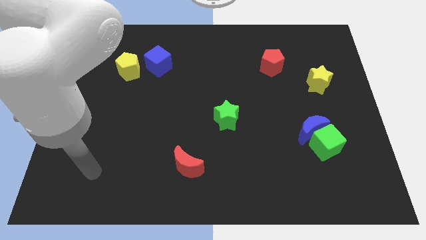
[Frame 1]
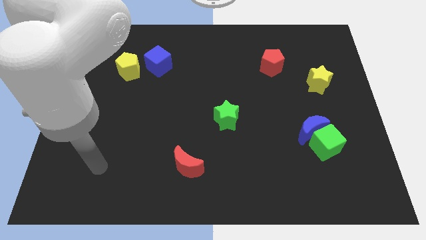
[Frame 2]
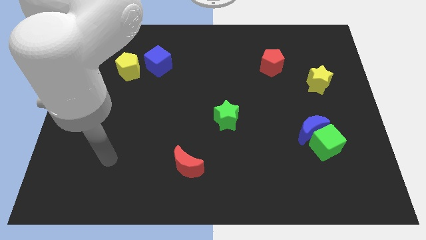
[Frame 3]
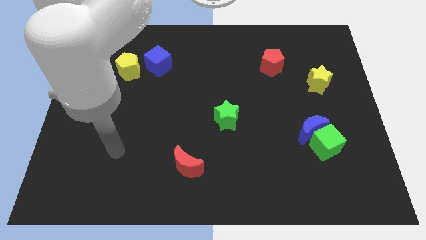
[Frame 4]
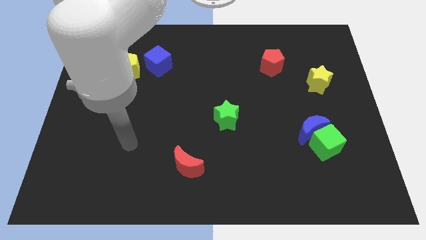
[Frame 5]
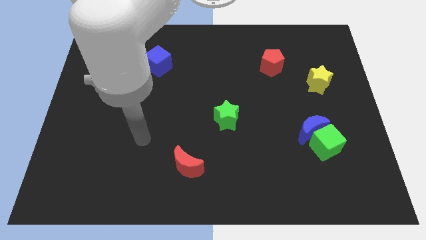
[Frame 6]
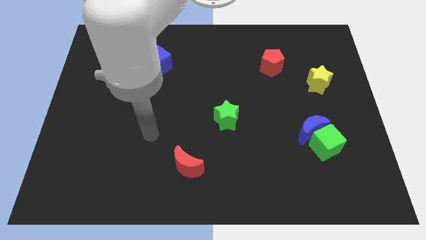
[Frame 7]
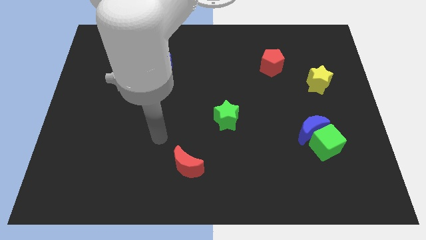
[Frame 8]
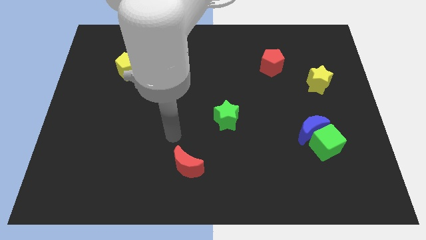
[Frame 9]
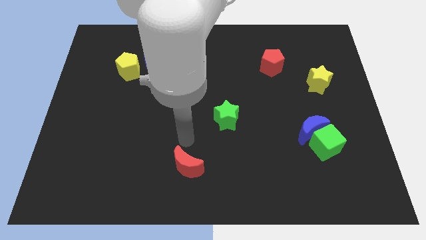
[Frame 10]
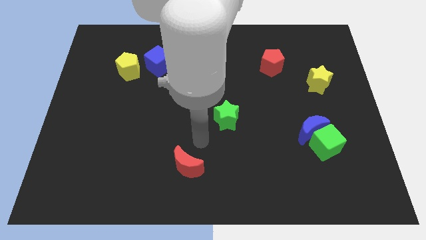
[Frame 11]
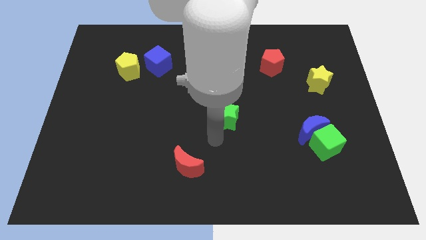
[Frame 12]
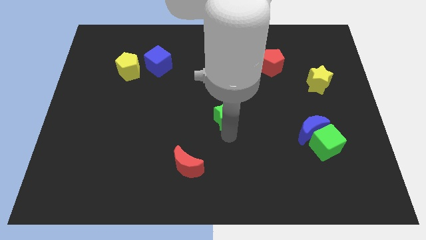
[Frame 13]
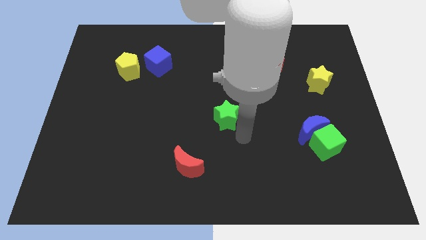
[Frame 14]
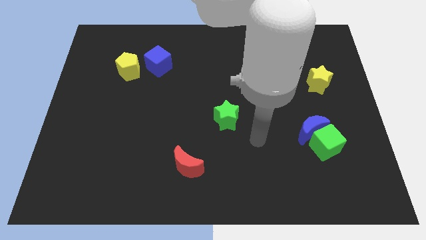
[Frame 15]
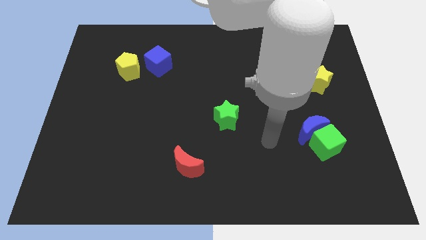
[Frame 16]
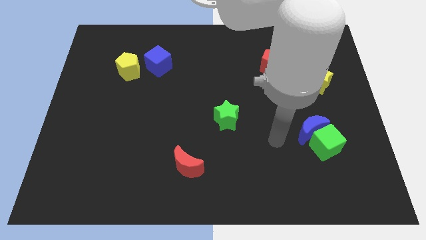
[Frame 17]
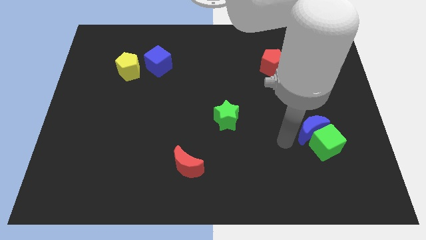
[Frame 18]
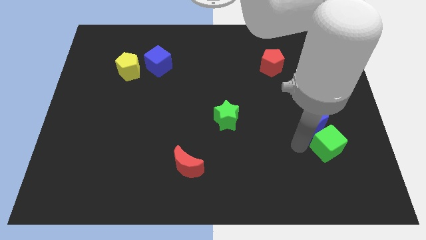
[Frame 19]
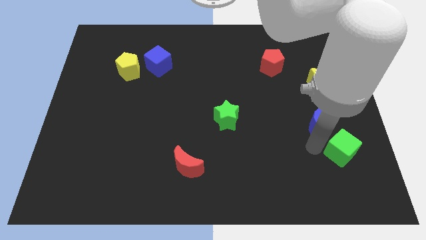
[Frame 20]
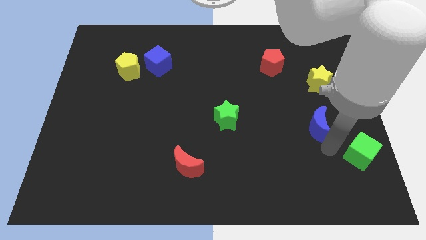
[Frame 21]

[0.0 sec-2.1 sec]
separate the blue moon from the green cube

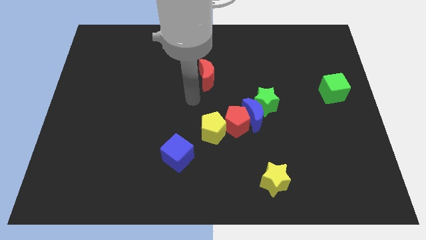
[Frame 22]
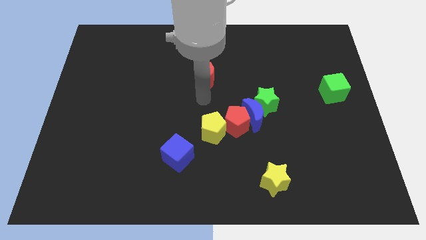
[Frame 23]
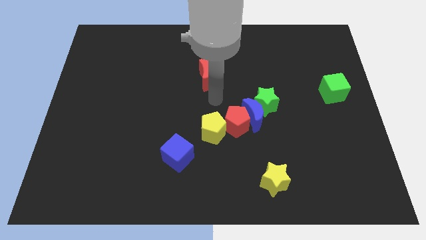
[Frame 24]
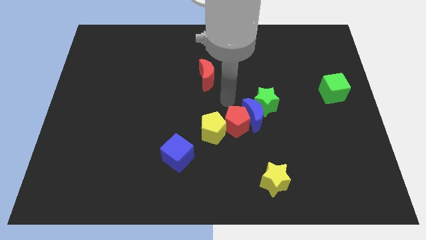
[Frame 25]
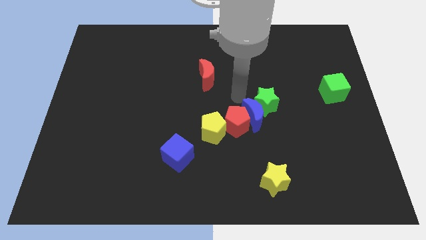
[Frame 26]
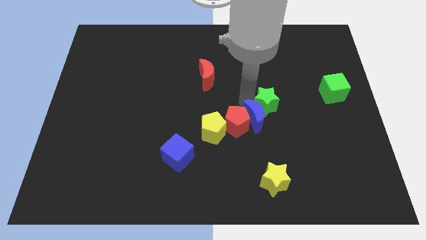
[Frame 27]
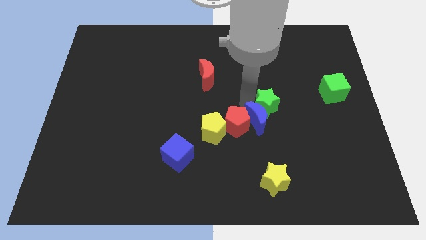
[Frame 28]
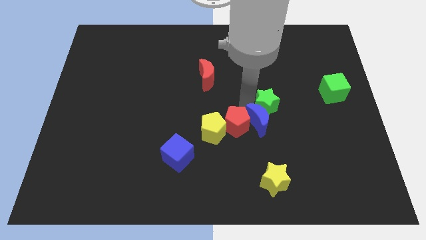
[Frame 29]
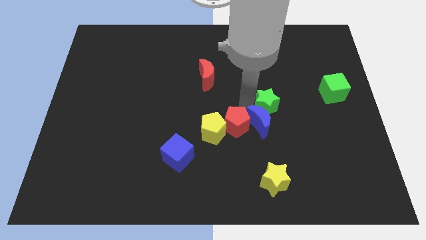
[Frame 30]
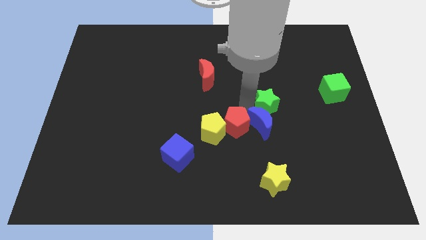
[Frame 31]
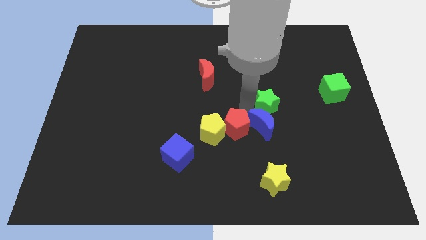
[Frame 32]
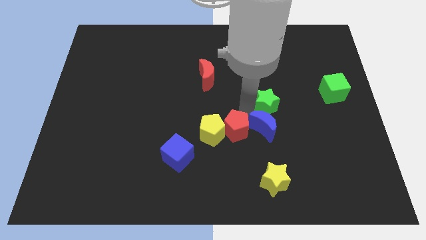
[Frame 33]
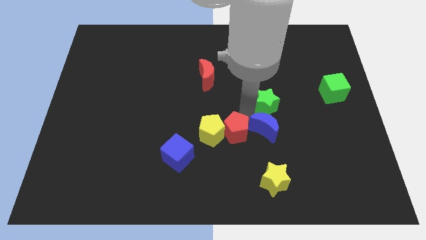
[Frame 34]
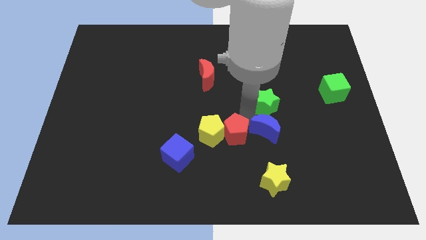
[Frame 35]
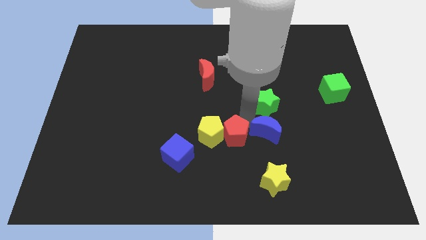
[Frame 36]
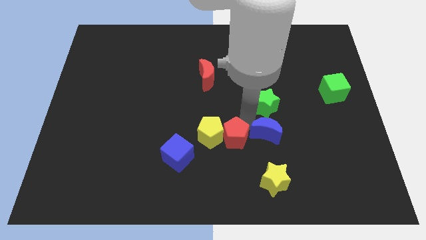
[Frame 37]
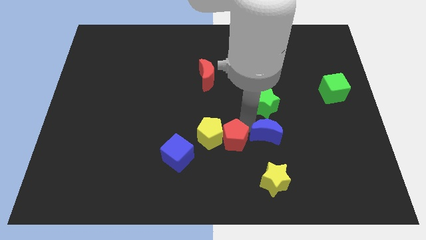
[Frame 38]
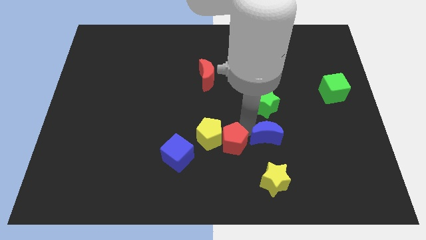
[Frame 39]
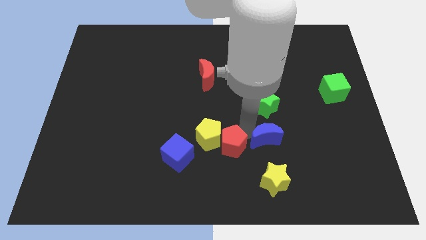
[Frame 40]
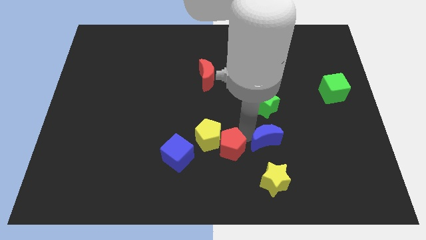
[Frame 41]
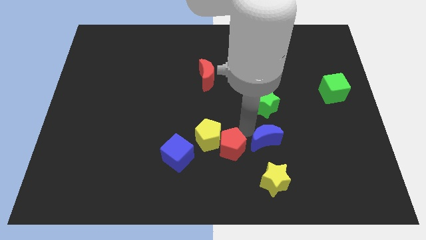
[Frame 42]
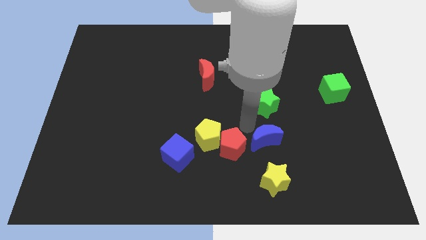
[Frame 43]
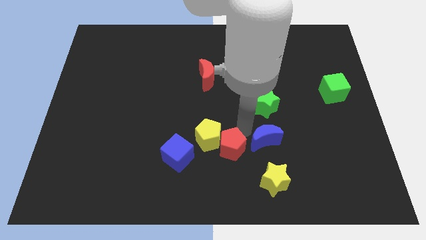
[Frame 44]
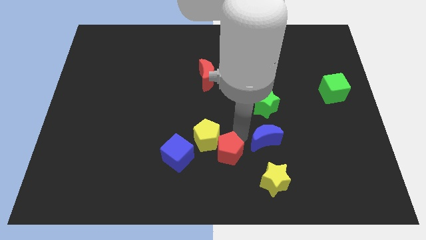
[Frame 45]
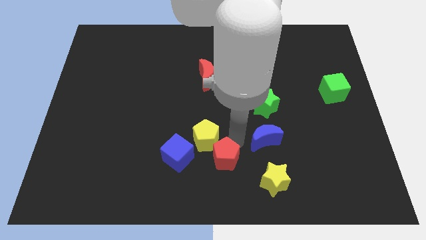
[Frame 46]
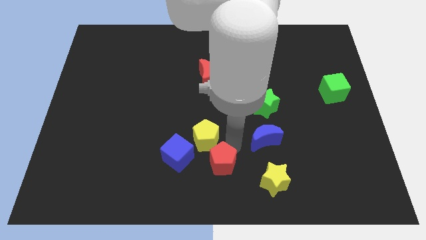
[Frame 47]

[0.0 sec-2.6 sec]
pull the red pentagon apart from the blue moon, yellow pentagon, and green star

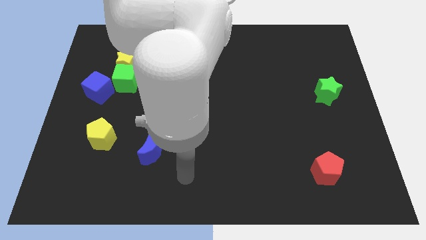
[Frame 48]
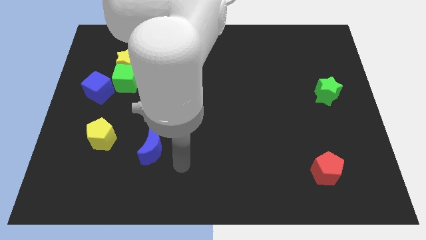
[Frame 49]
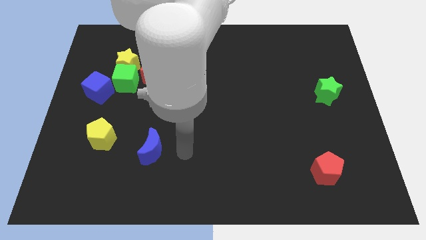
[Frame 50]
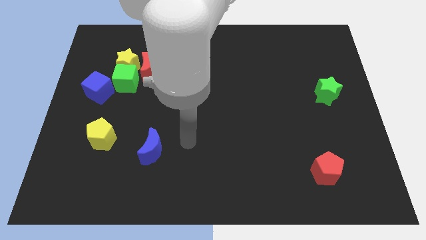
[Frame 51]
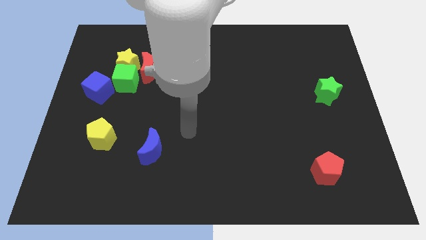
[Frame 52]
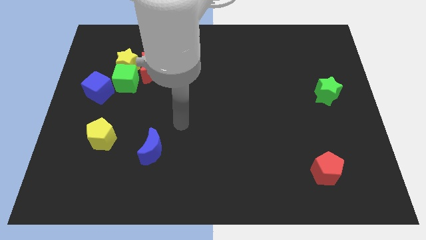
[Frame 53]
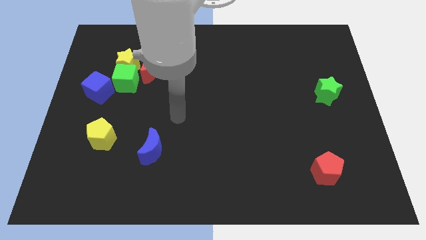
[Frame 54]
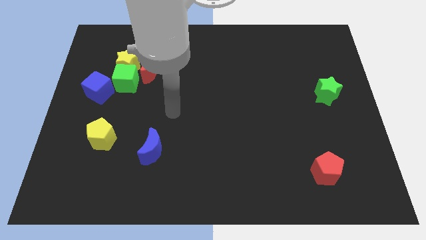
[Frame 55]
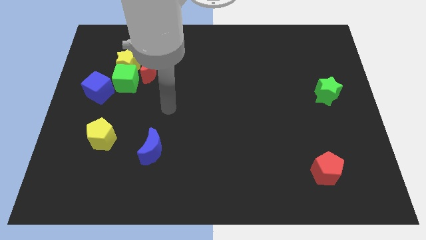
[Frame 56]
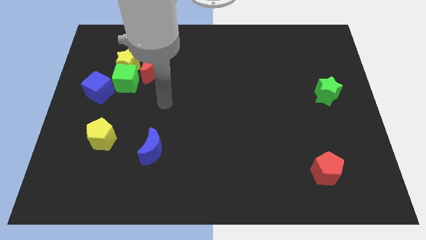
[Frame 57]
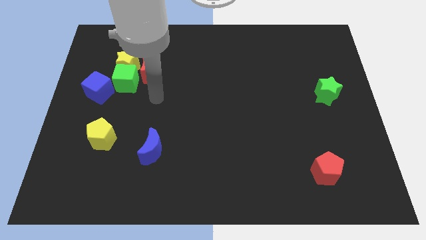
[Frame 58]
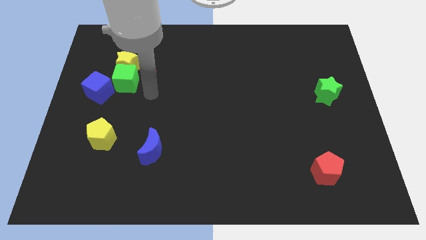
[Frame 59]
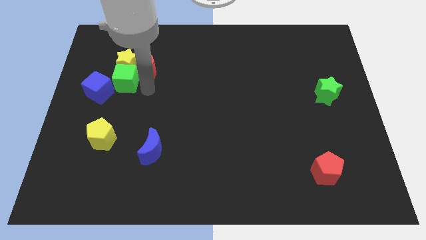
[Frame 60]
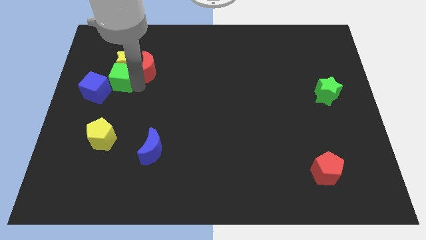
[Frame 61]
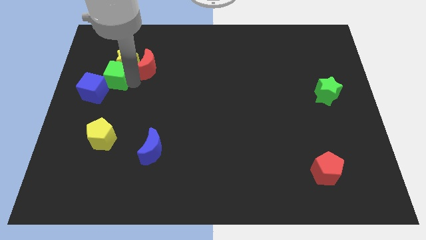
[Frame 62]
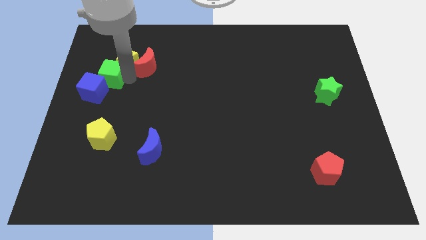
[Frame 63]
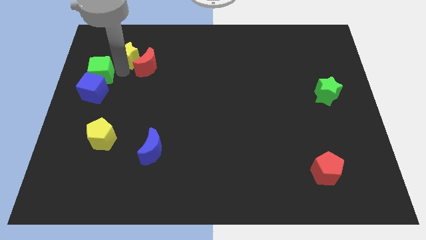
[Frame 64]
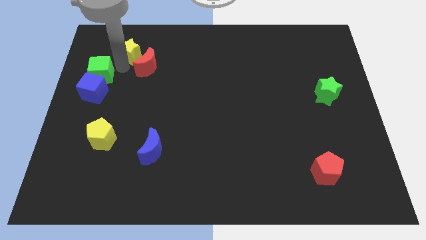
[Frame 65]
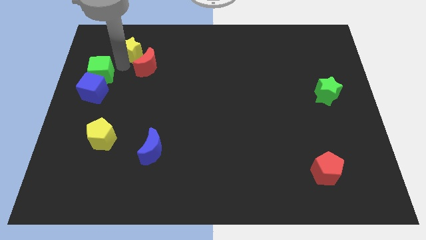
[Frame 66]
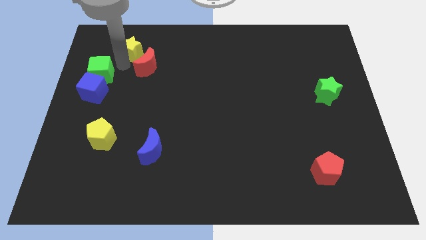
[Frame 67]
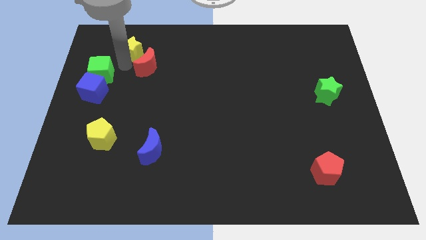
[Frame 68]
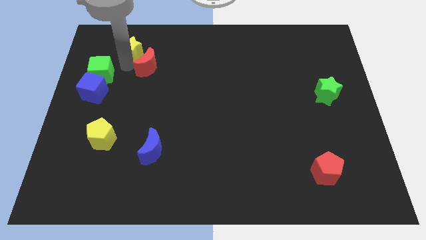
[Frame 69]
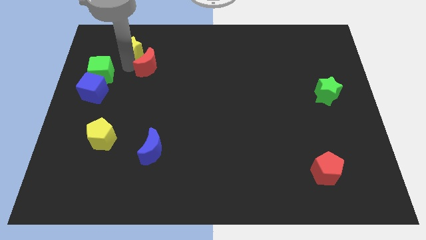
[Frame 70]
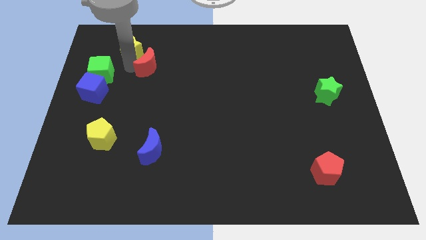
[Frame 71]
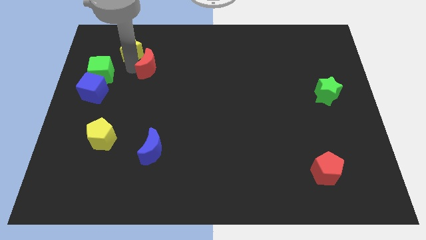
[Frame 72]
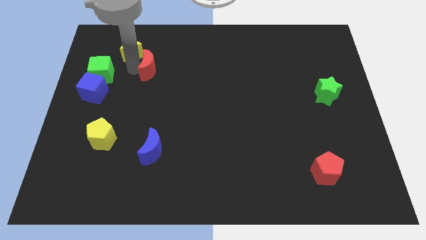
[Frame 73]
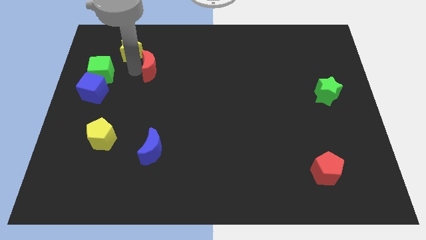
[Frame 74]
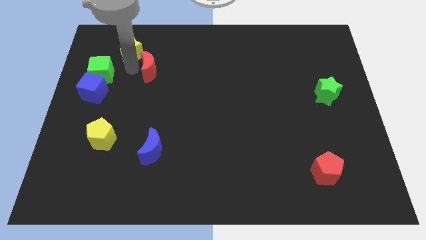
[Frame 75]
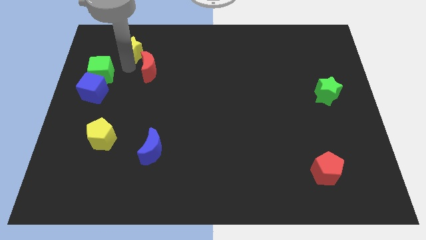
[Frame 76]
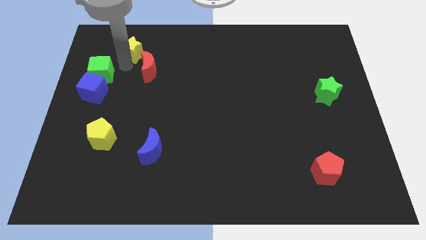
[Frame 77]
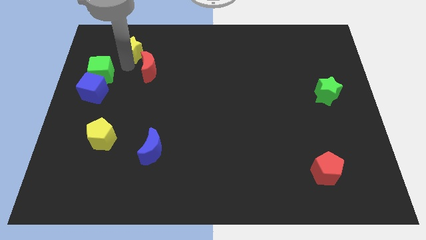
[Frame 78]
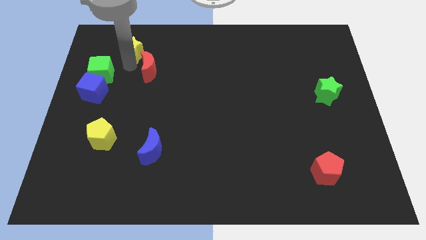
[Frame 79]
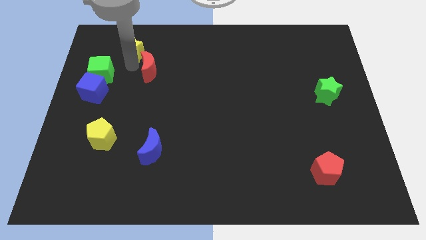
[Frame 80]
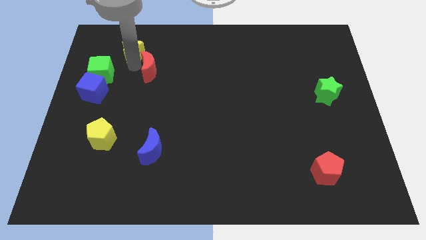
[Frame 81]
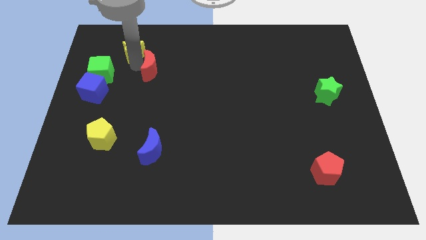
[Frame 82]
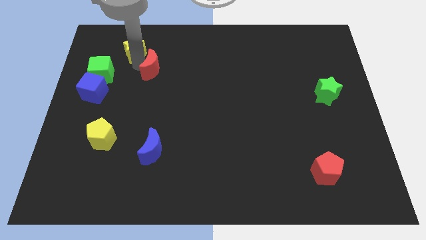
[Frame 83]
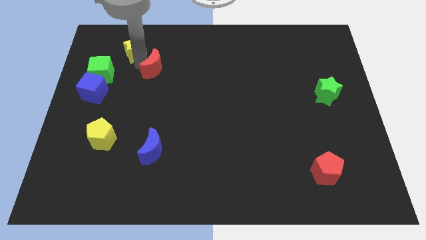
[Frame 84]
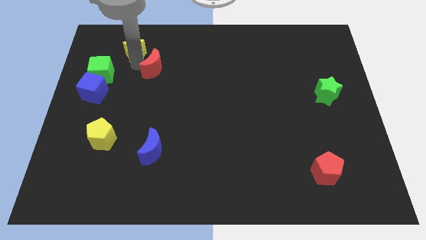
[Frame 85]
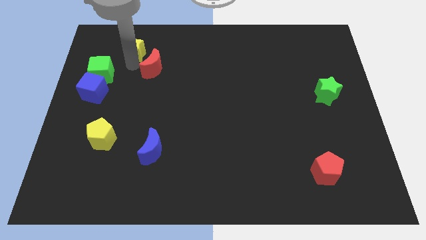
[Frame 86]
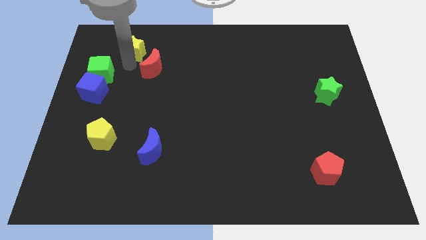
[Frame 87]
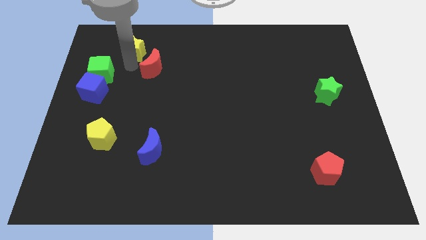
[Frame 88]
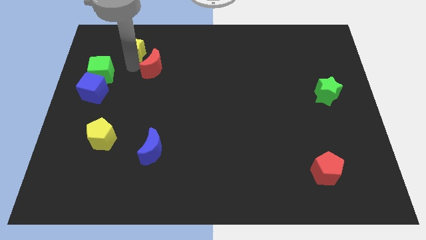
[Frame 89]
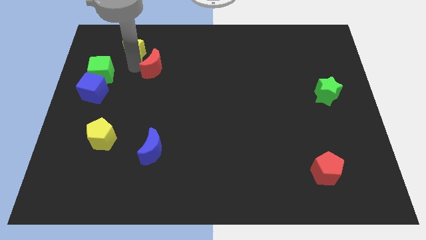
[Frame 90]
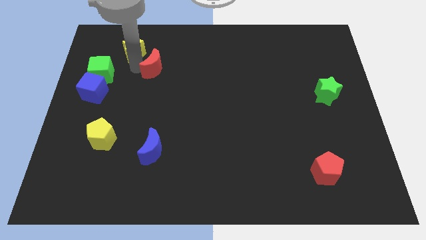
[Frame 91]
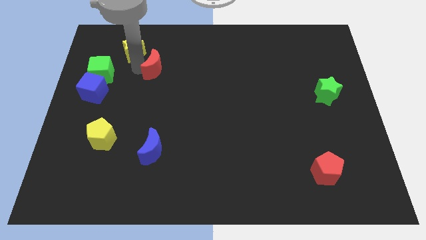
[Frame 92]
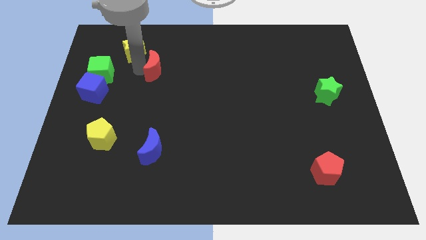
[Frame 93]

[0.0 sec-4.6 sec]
pull the red moon apart from the yellow star and green cube
